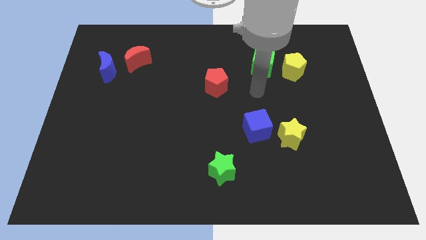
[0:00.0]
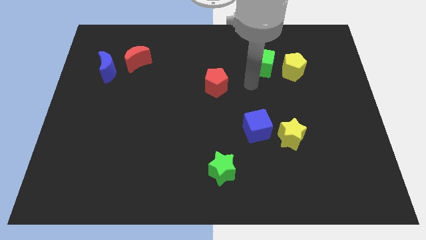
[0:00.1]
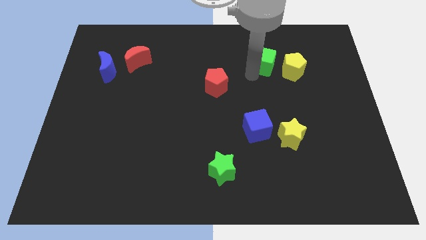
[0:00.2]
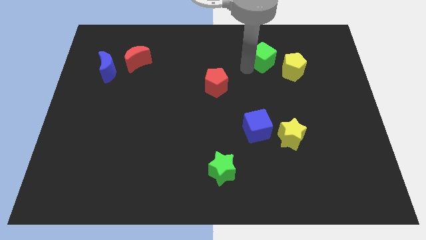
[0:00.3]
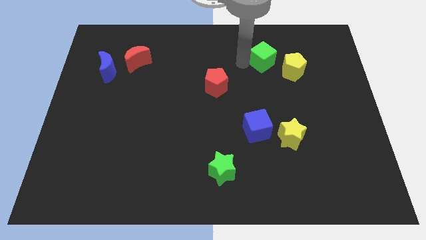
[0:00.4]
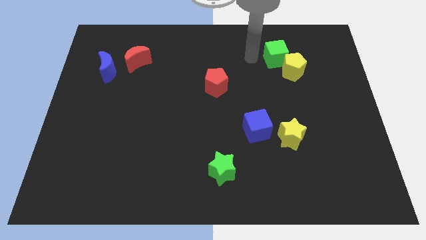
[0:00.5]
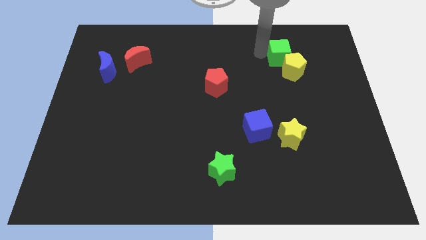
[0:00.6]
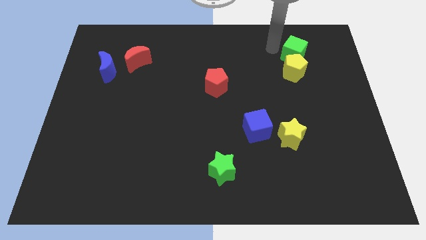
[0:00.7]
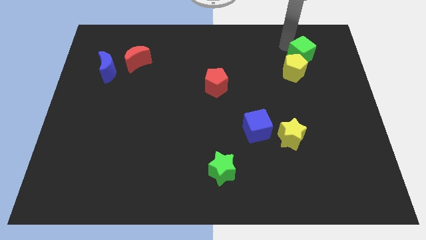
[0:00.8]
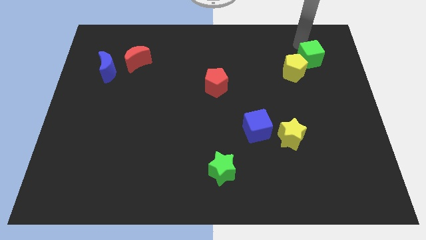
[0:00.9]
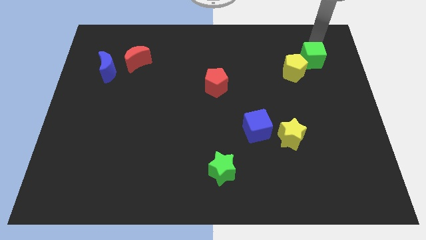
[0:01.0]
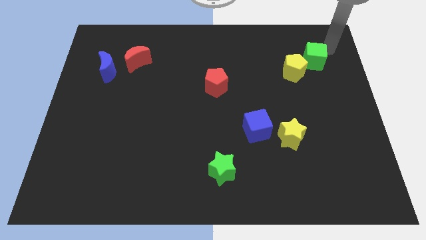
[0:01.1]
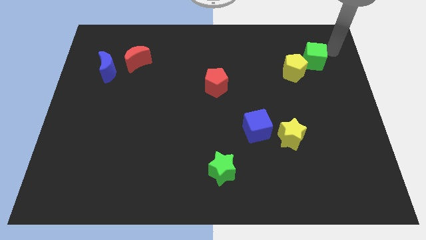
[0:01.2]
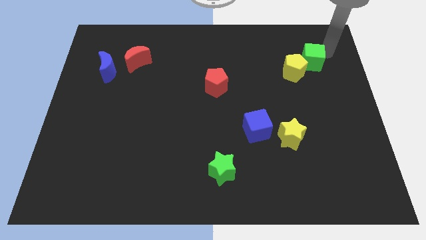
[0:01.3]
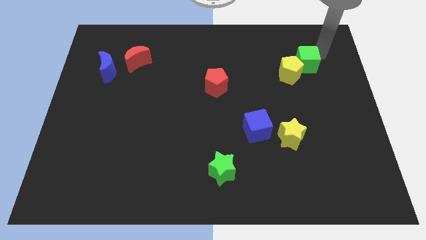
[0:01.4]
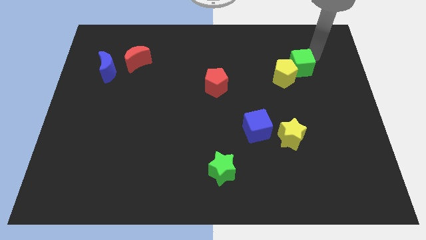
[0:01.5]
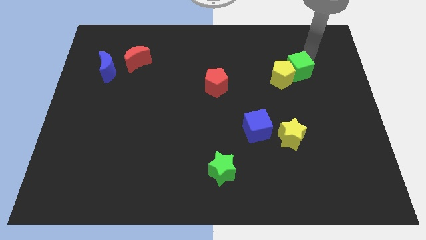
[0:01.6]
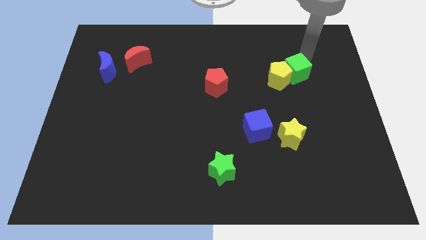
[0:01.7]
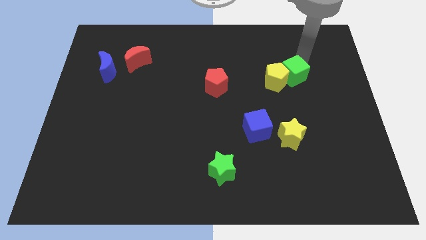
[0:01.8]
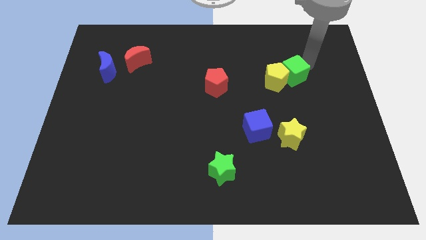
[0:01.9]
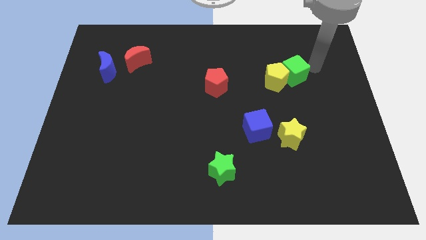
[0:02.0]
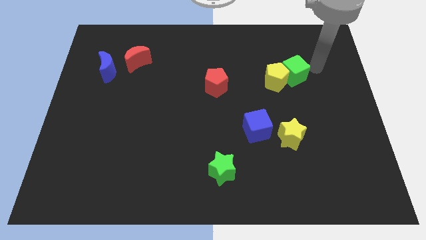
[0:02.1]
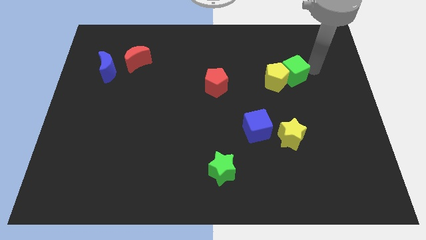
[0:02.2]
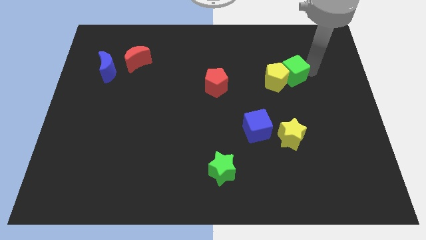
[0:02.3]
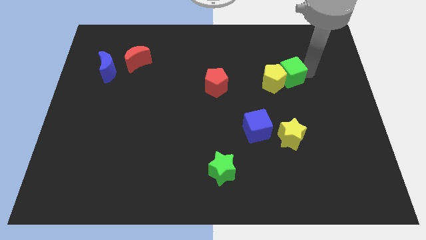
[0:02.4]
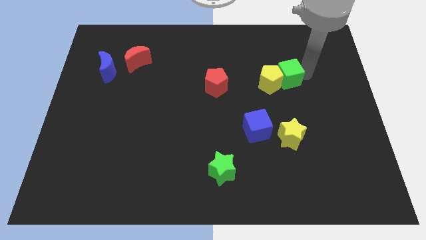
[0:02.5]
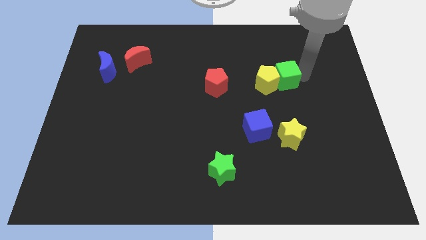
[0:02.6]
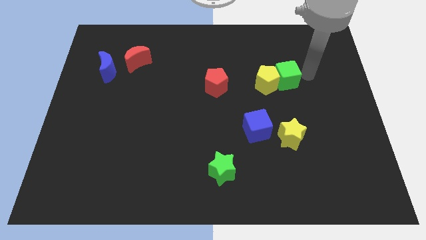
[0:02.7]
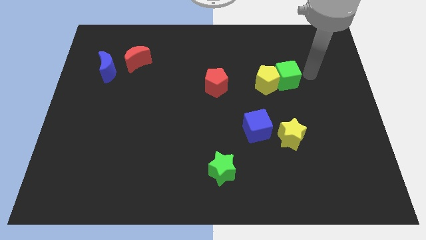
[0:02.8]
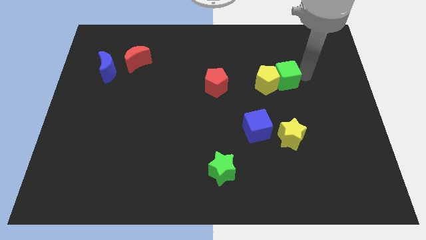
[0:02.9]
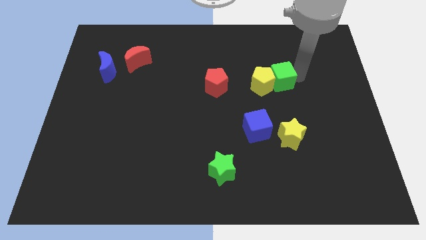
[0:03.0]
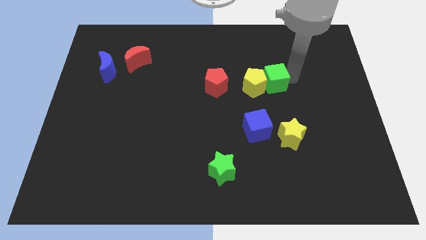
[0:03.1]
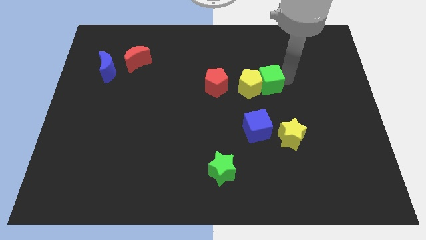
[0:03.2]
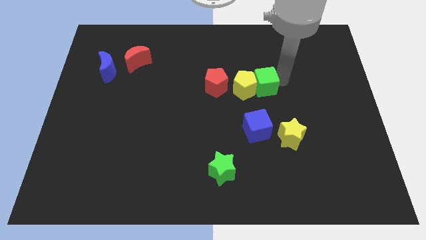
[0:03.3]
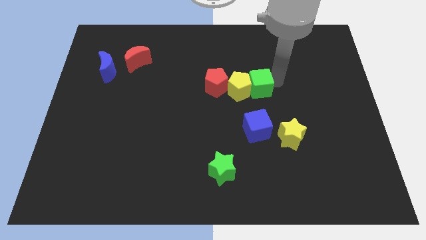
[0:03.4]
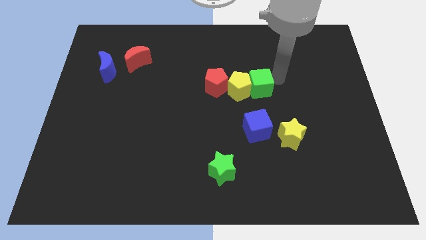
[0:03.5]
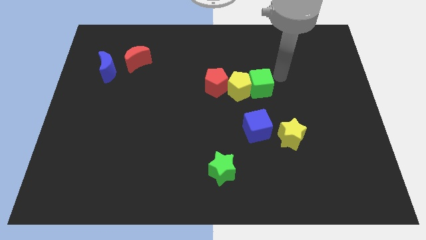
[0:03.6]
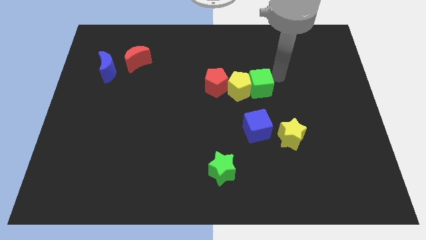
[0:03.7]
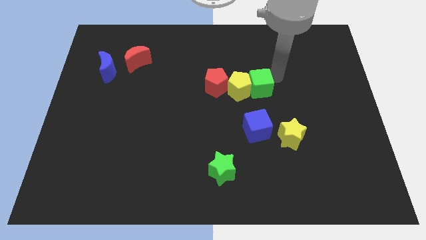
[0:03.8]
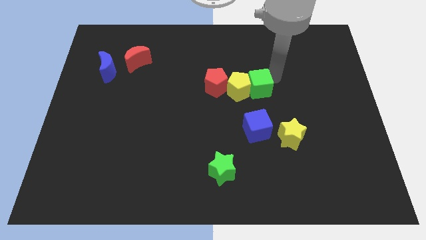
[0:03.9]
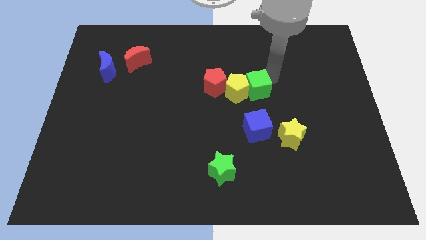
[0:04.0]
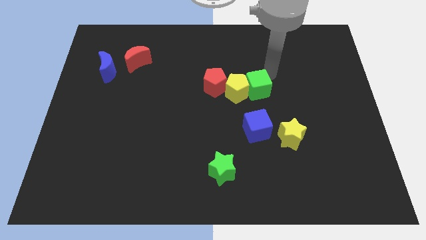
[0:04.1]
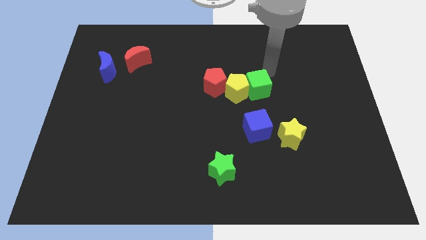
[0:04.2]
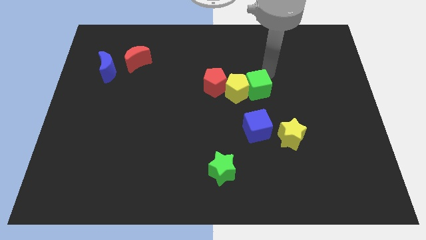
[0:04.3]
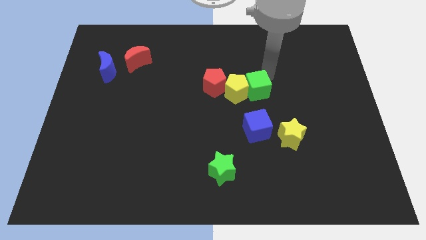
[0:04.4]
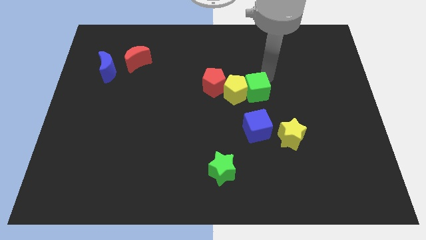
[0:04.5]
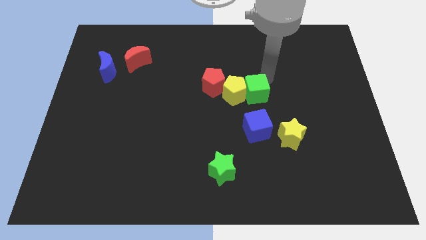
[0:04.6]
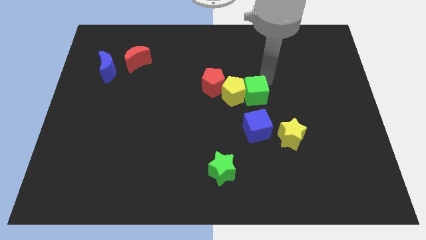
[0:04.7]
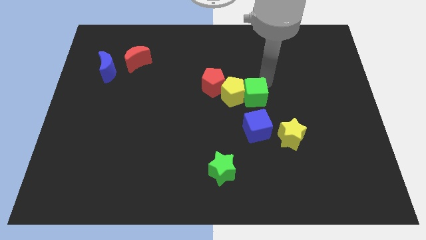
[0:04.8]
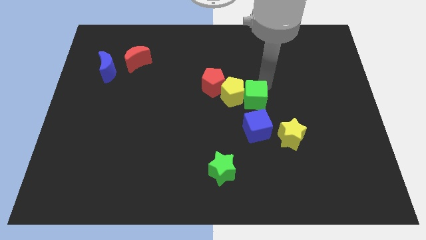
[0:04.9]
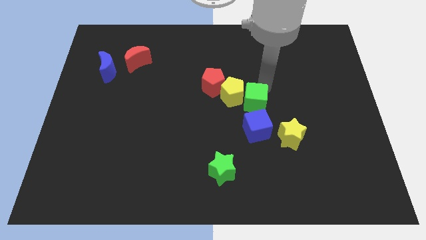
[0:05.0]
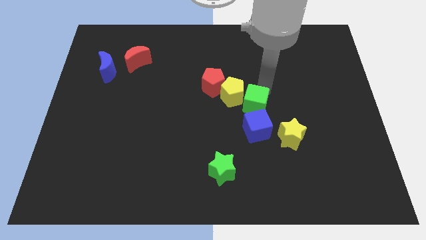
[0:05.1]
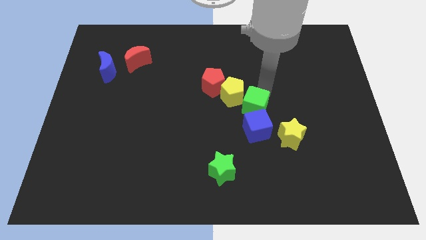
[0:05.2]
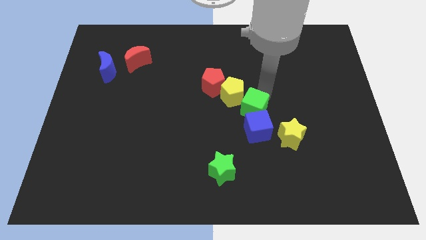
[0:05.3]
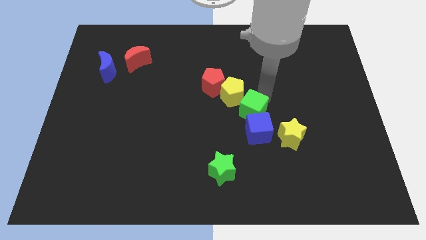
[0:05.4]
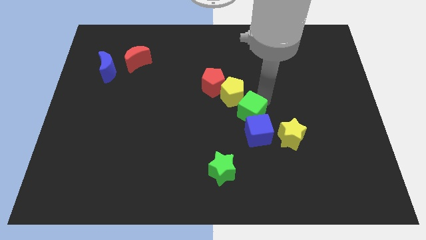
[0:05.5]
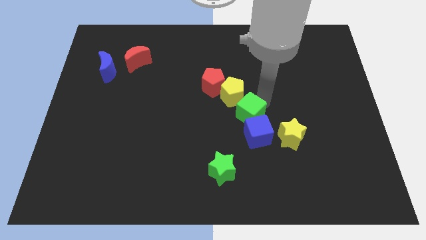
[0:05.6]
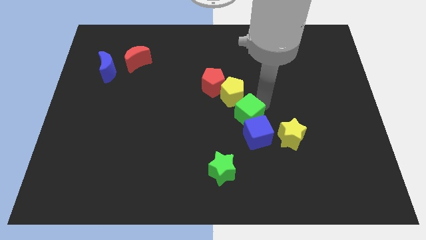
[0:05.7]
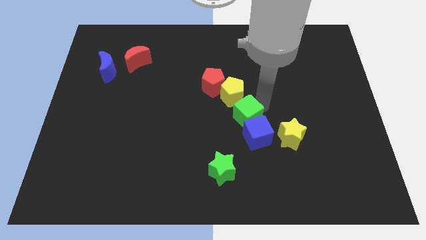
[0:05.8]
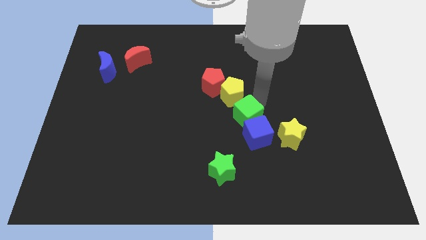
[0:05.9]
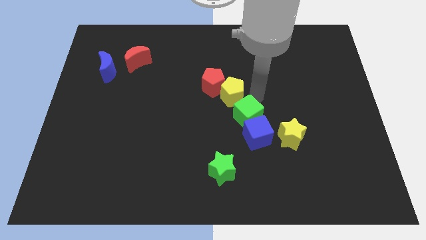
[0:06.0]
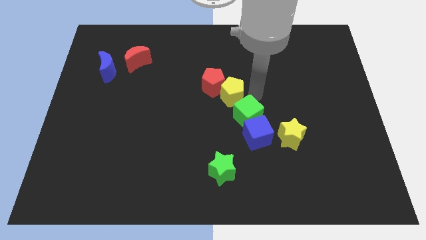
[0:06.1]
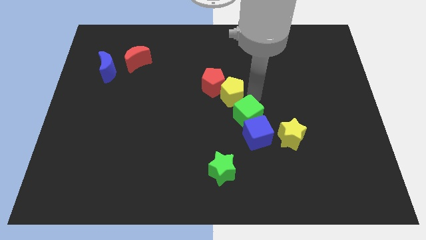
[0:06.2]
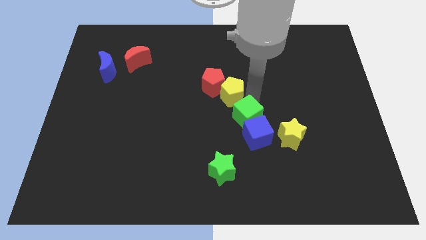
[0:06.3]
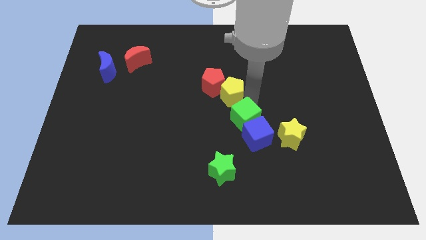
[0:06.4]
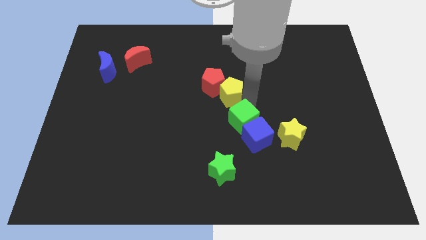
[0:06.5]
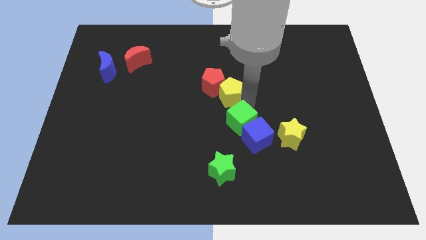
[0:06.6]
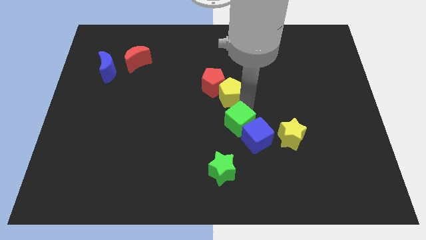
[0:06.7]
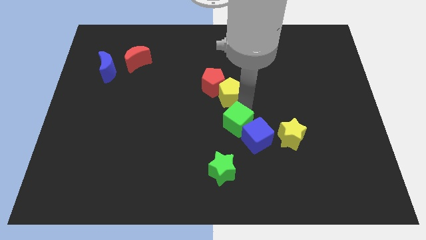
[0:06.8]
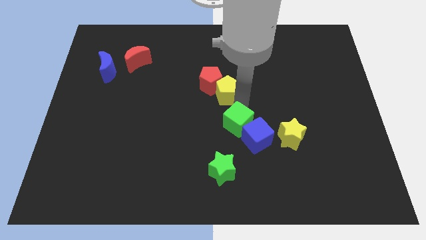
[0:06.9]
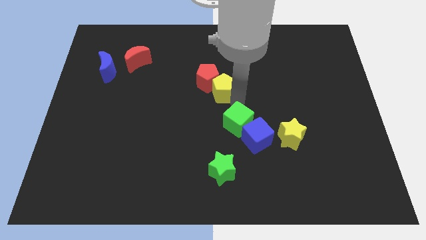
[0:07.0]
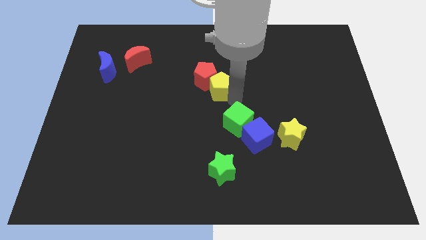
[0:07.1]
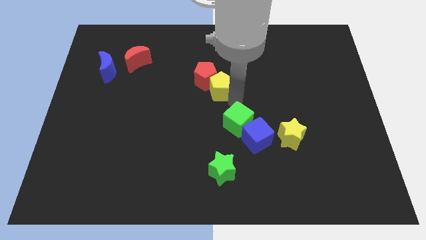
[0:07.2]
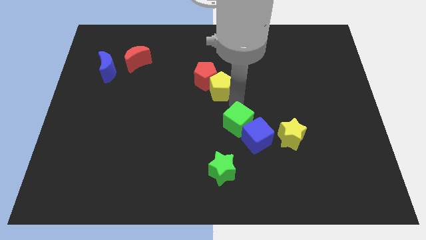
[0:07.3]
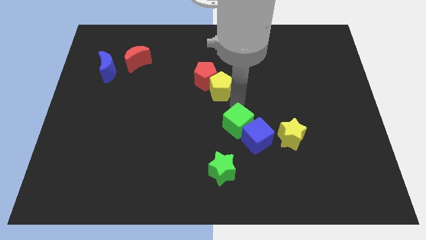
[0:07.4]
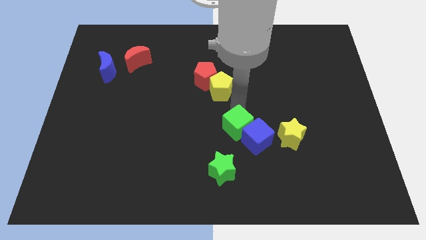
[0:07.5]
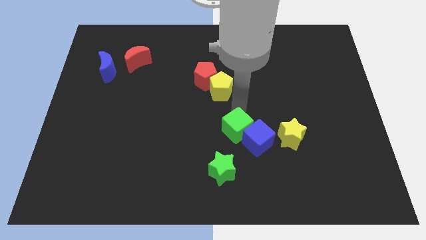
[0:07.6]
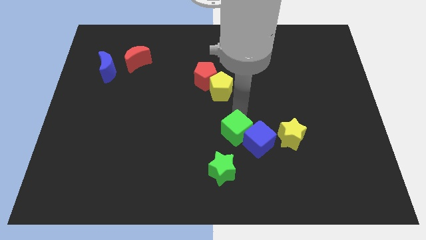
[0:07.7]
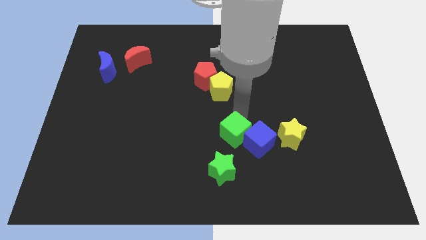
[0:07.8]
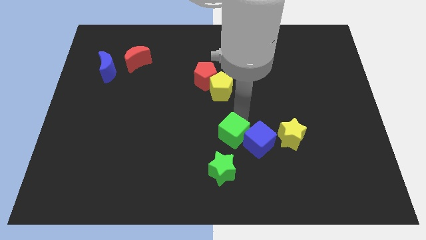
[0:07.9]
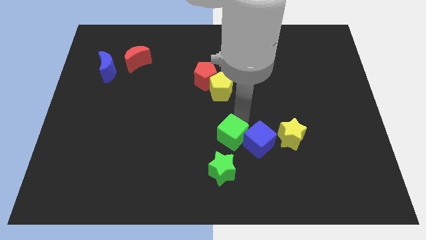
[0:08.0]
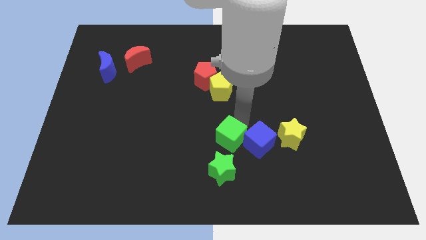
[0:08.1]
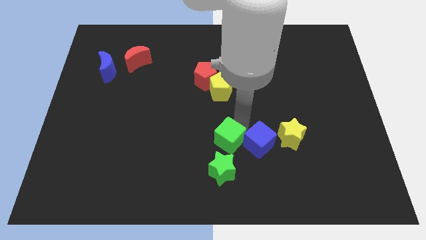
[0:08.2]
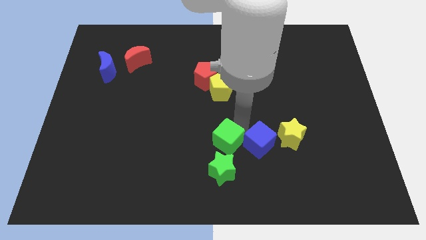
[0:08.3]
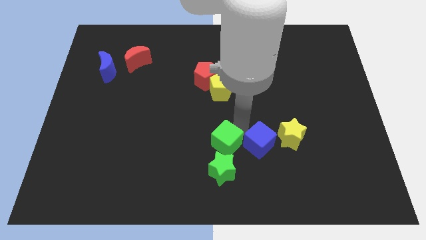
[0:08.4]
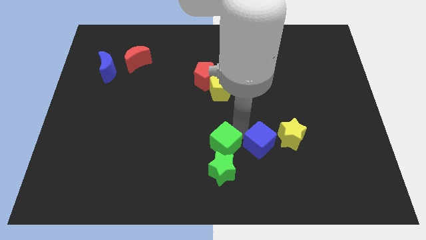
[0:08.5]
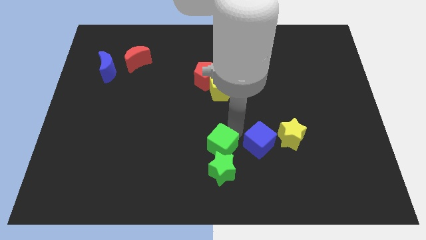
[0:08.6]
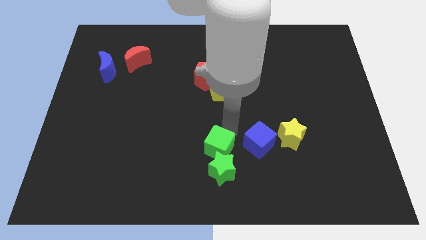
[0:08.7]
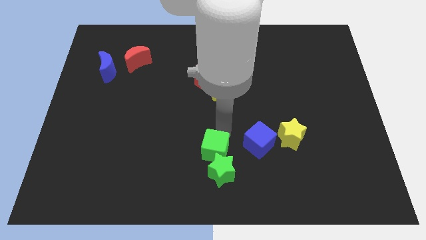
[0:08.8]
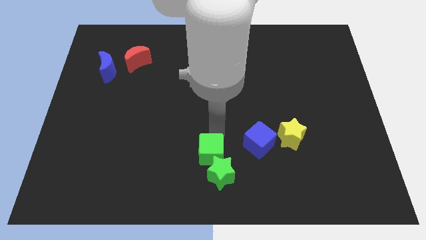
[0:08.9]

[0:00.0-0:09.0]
push the green cube to the bottom side
